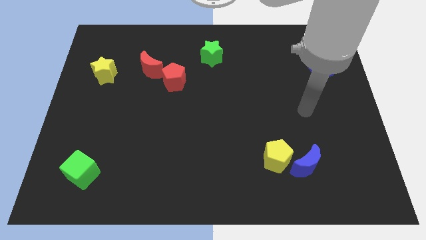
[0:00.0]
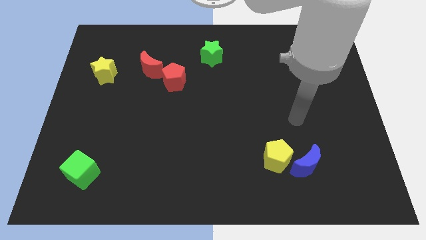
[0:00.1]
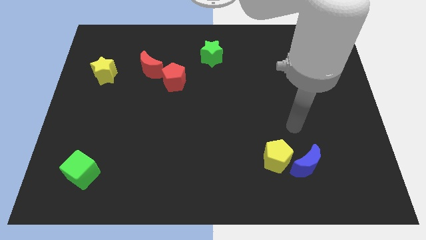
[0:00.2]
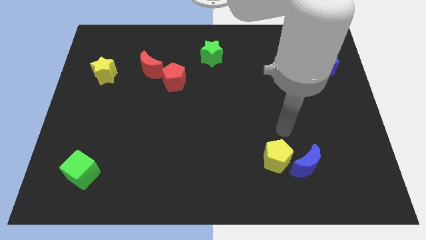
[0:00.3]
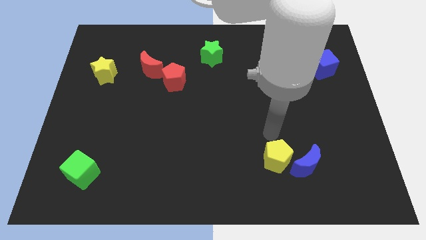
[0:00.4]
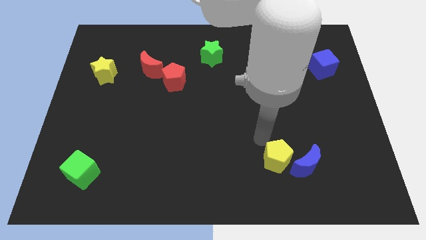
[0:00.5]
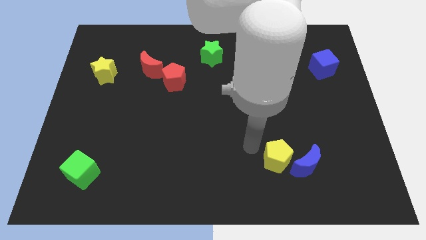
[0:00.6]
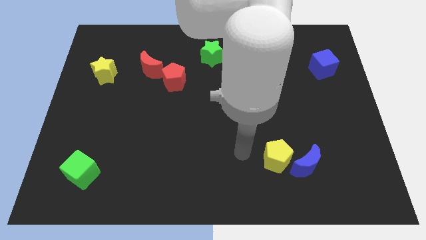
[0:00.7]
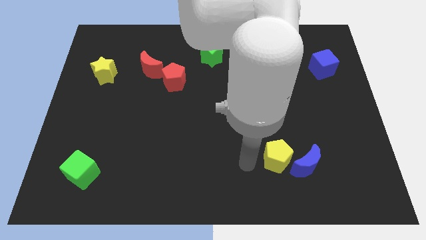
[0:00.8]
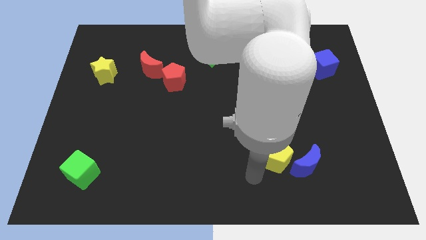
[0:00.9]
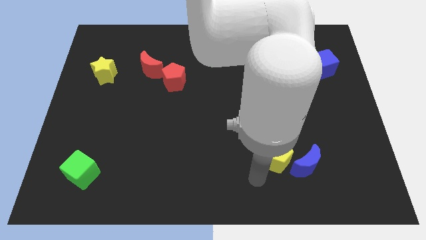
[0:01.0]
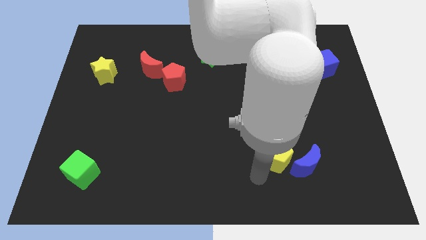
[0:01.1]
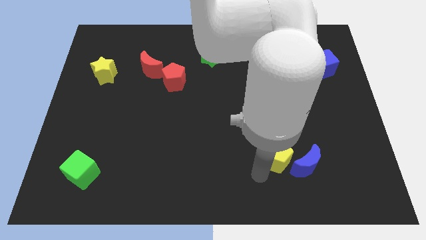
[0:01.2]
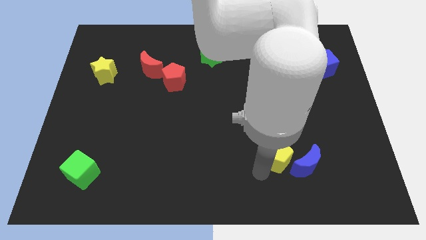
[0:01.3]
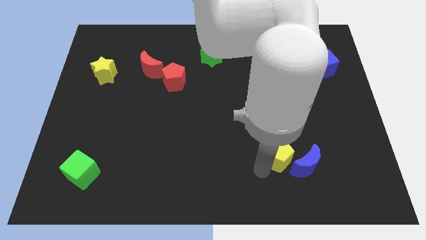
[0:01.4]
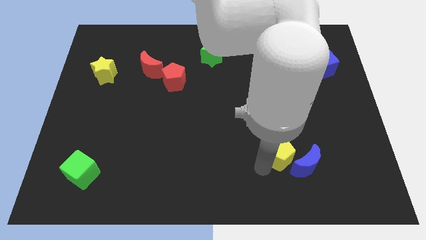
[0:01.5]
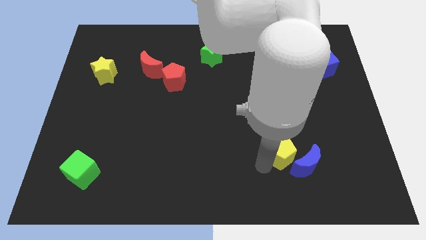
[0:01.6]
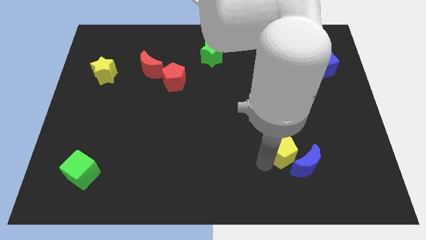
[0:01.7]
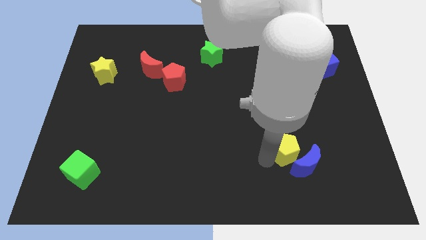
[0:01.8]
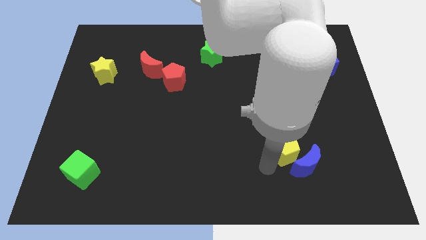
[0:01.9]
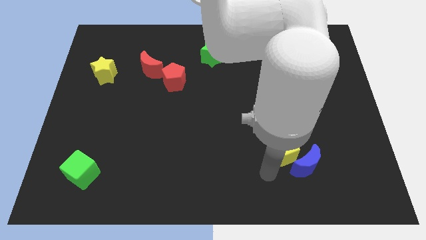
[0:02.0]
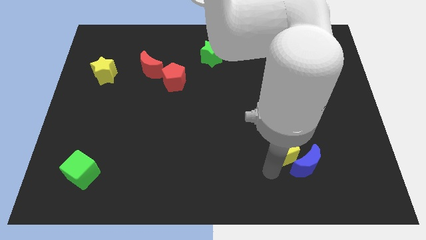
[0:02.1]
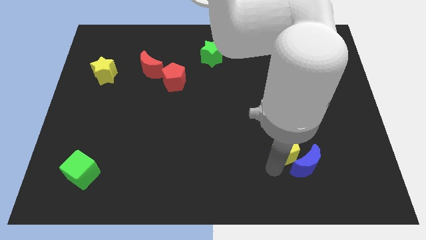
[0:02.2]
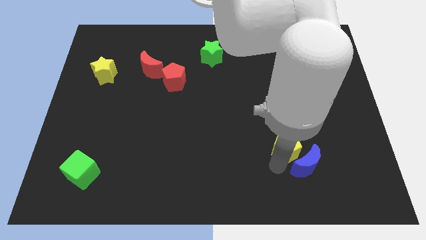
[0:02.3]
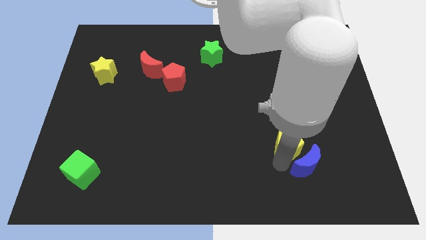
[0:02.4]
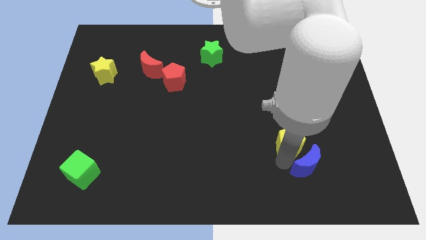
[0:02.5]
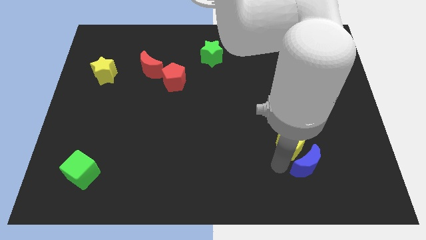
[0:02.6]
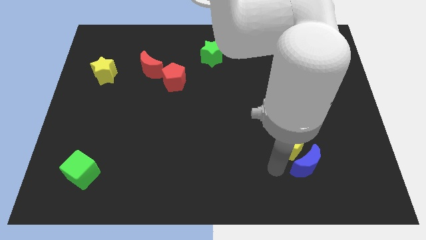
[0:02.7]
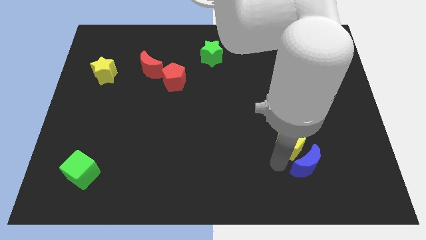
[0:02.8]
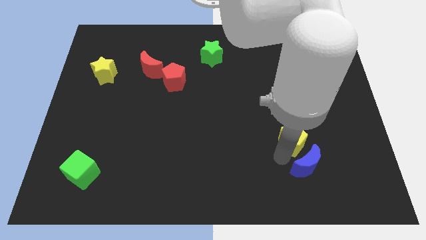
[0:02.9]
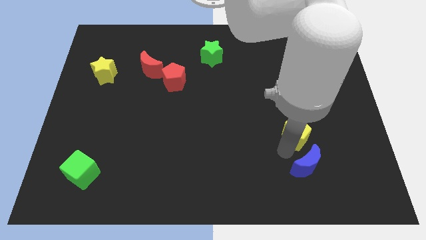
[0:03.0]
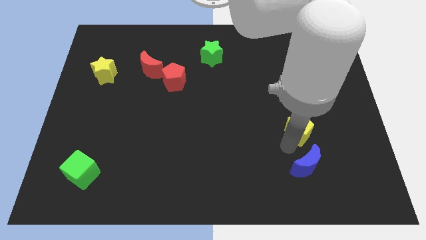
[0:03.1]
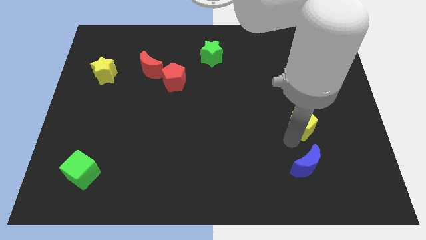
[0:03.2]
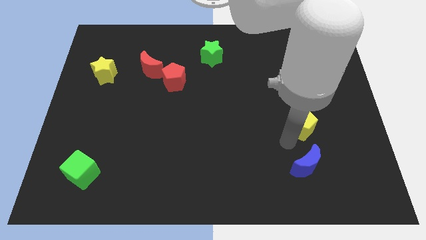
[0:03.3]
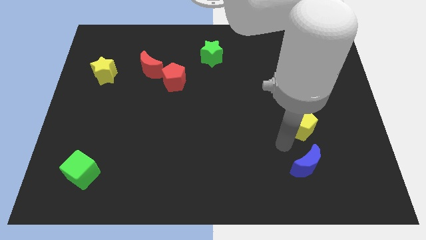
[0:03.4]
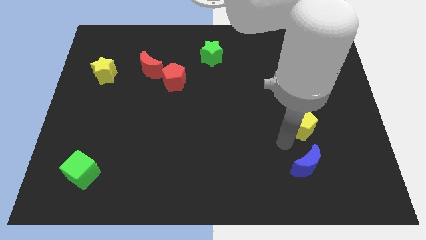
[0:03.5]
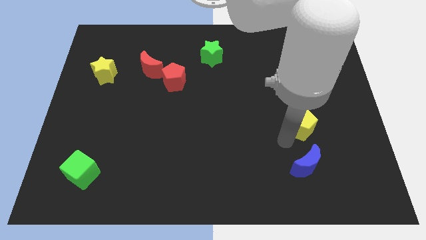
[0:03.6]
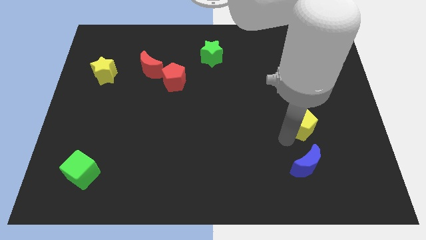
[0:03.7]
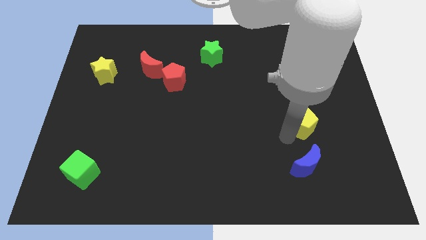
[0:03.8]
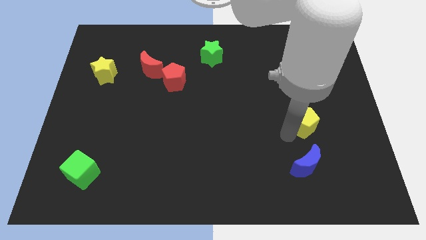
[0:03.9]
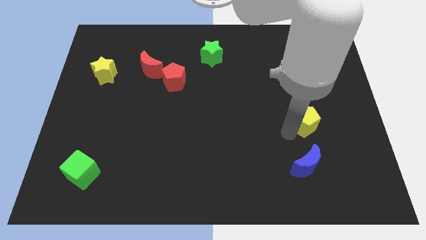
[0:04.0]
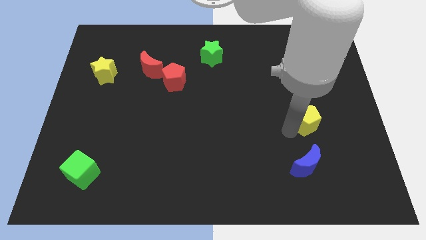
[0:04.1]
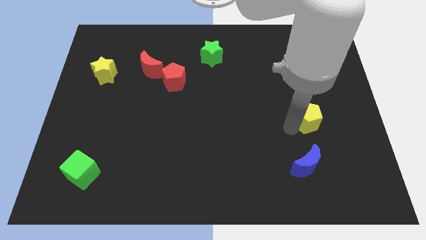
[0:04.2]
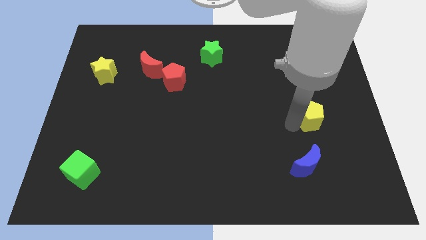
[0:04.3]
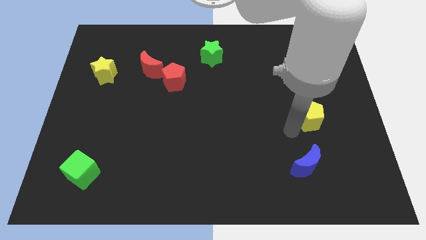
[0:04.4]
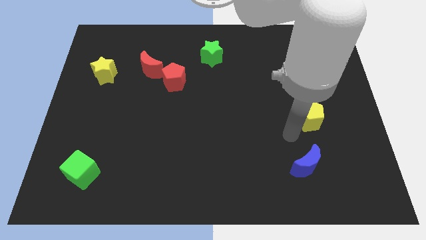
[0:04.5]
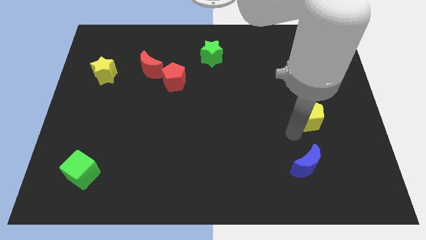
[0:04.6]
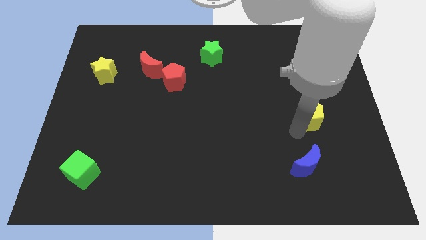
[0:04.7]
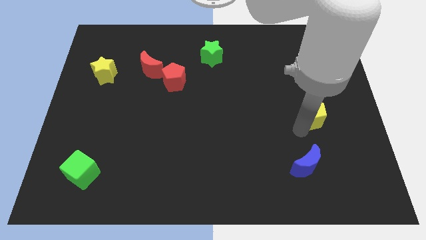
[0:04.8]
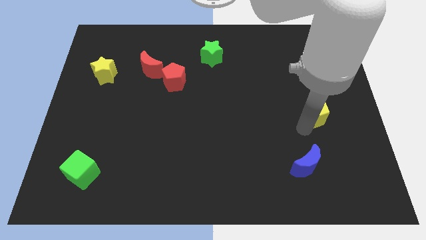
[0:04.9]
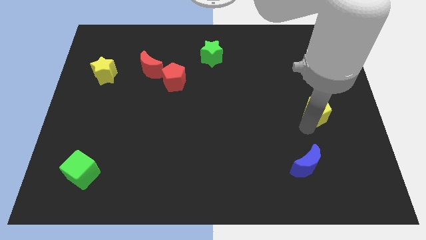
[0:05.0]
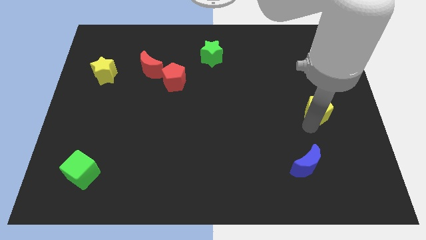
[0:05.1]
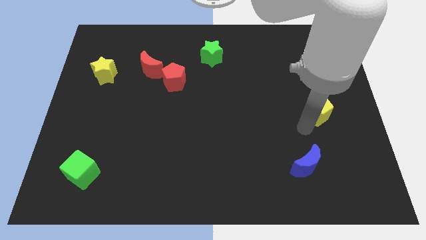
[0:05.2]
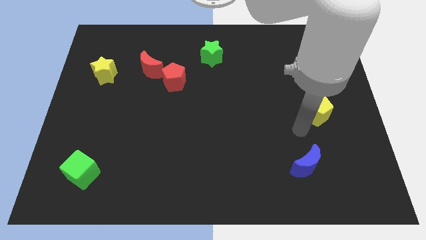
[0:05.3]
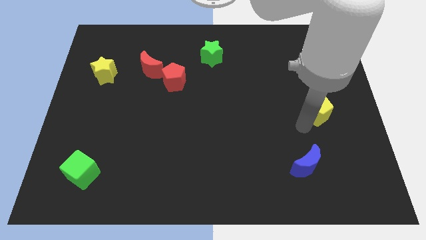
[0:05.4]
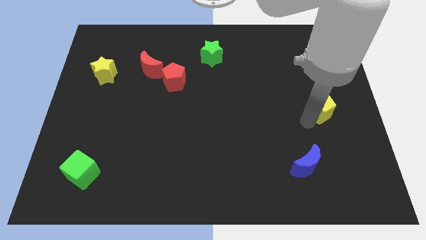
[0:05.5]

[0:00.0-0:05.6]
put the yellow pentagon below the blue cube

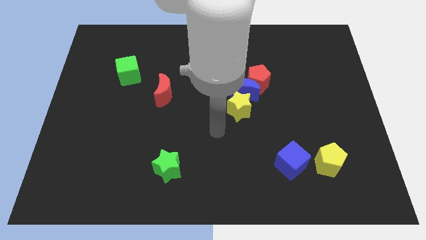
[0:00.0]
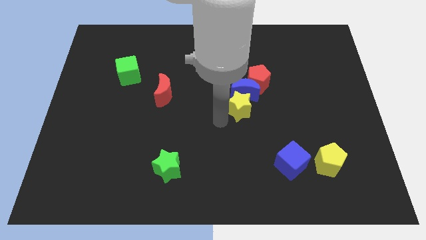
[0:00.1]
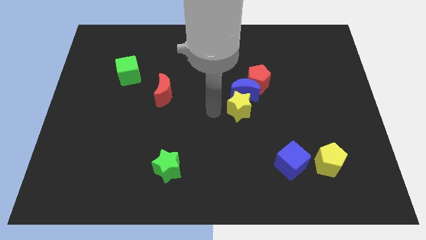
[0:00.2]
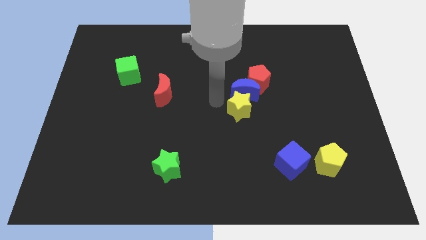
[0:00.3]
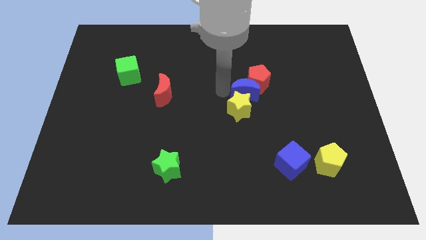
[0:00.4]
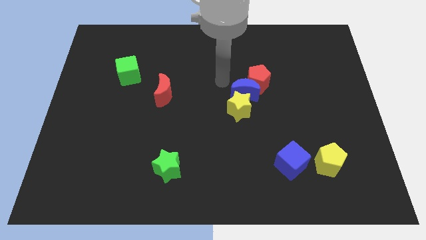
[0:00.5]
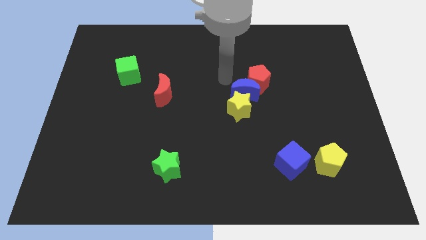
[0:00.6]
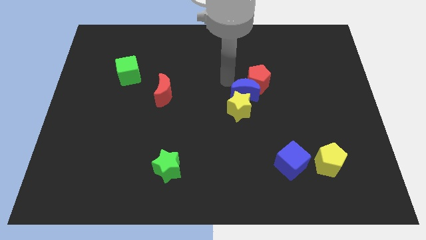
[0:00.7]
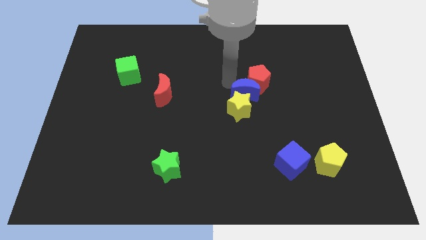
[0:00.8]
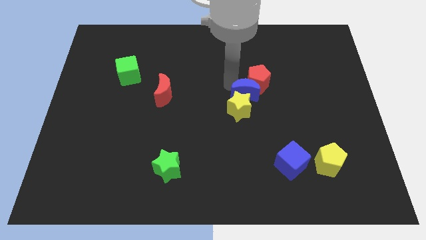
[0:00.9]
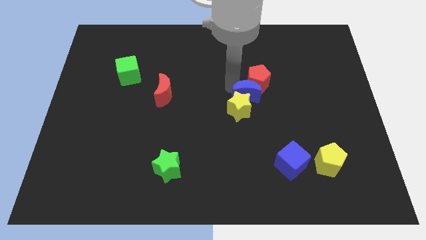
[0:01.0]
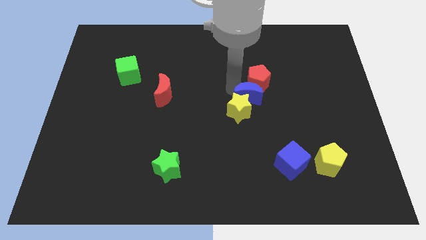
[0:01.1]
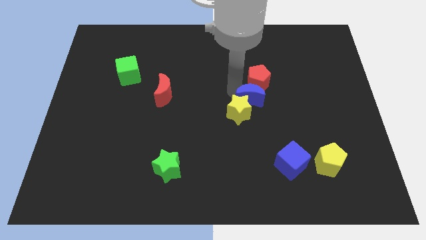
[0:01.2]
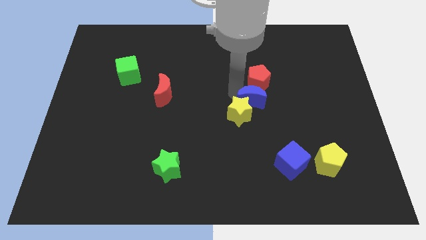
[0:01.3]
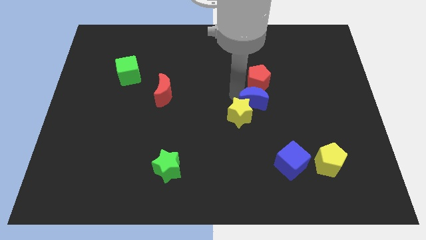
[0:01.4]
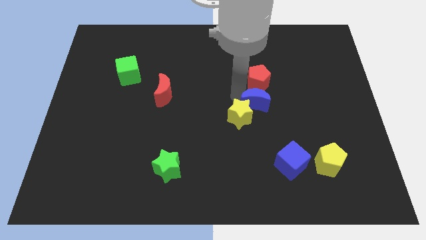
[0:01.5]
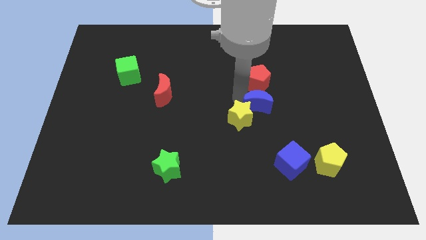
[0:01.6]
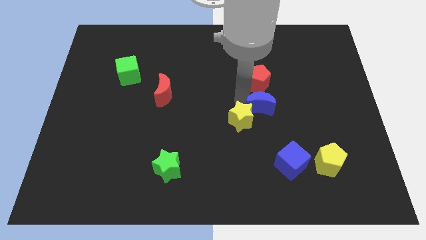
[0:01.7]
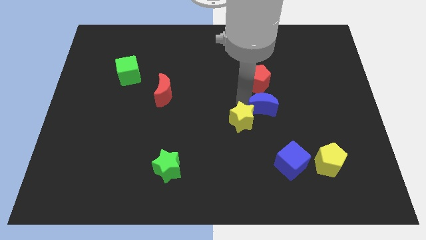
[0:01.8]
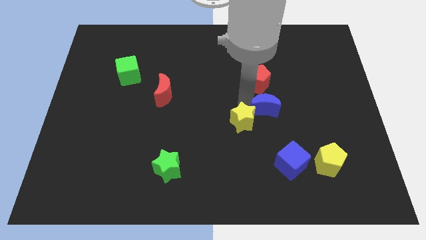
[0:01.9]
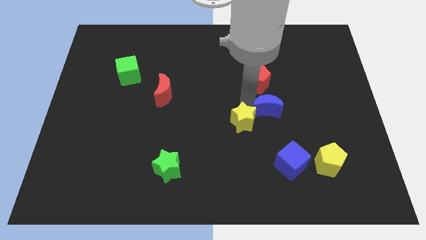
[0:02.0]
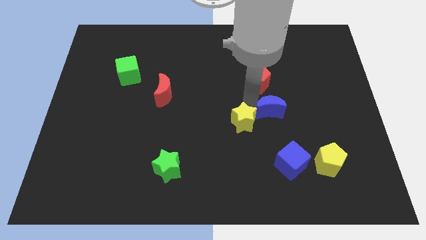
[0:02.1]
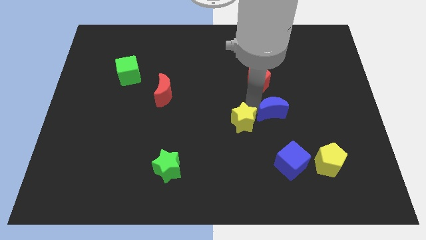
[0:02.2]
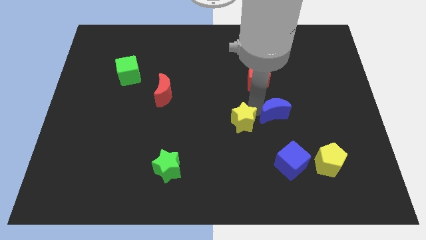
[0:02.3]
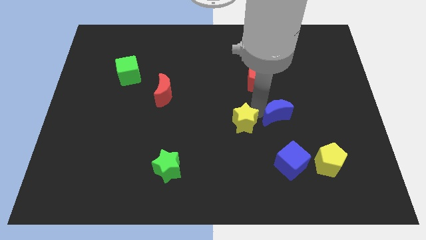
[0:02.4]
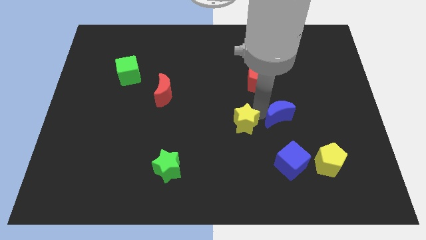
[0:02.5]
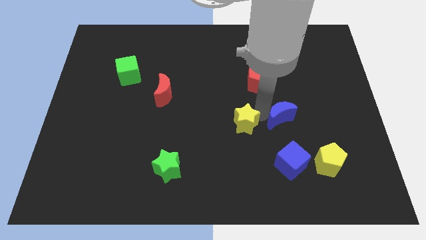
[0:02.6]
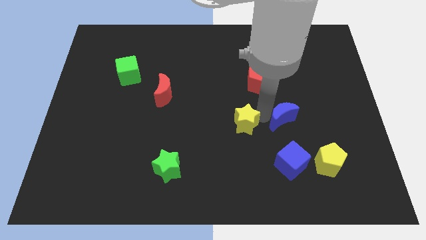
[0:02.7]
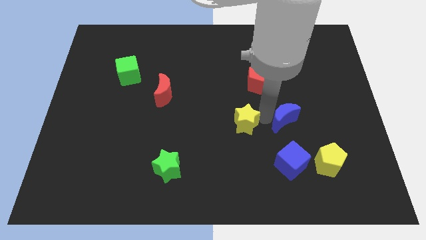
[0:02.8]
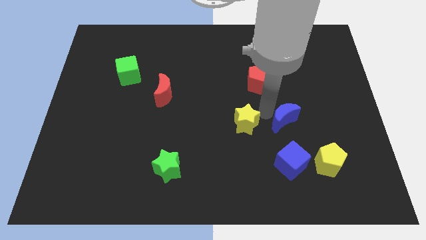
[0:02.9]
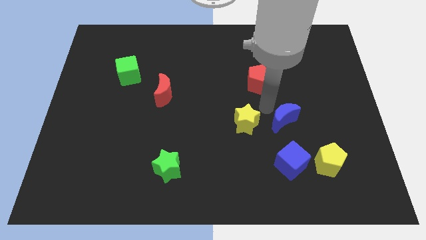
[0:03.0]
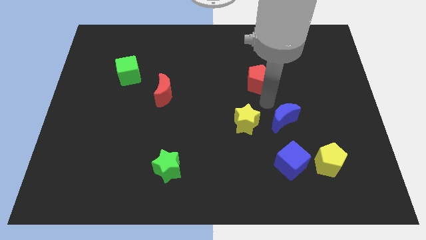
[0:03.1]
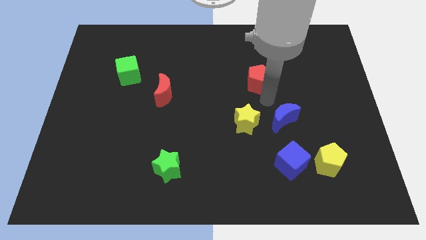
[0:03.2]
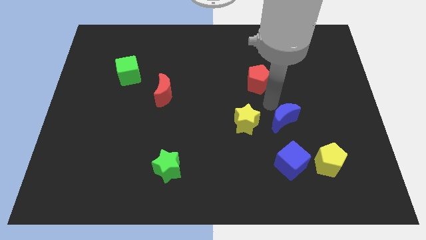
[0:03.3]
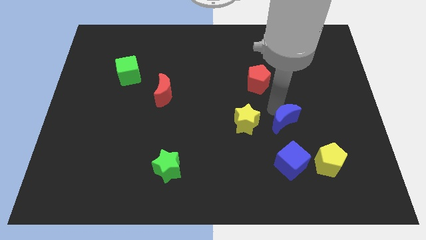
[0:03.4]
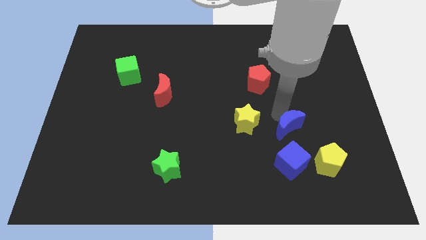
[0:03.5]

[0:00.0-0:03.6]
move the blue moon diagonally up and to the left of the yellow pentagon
